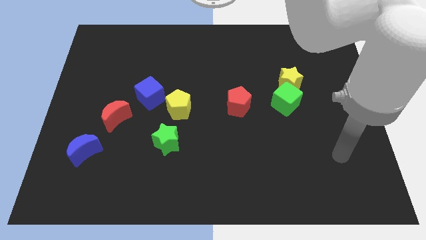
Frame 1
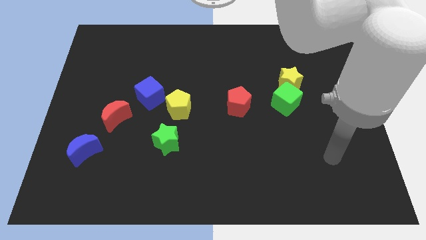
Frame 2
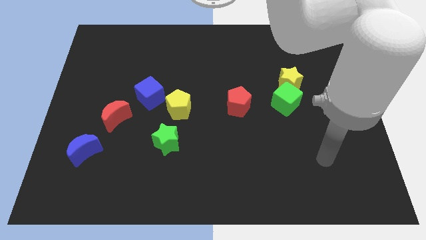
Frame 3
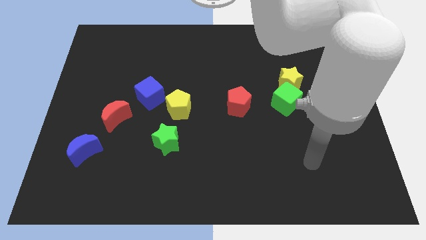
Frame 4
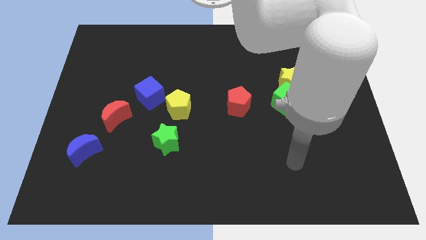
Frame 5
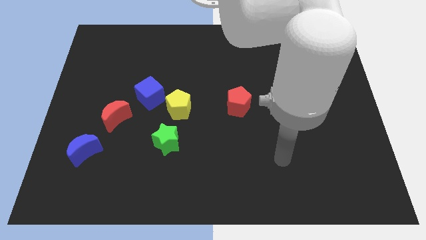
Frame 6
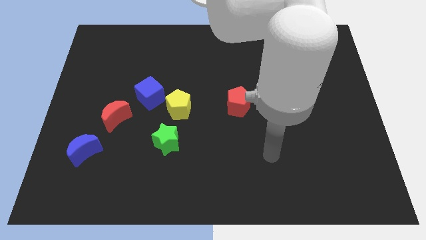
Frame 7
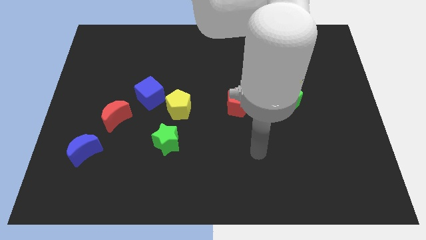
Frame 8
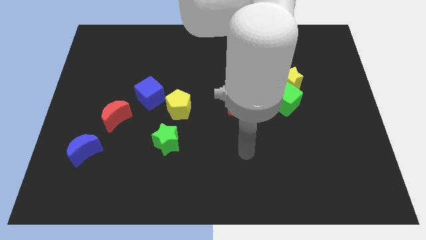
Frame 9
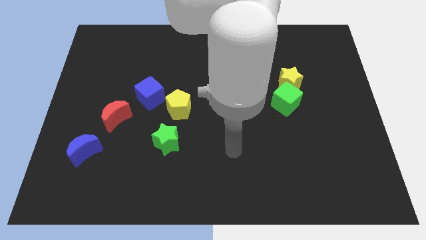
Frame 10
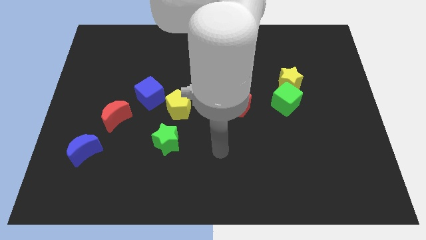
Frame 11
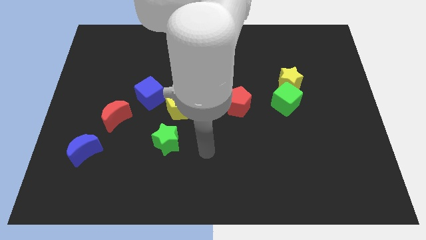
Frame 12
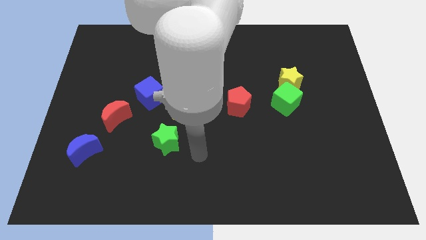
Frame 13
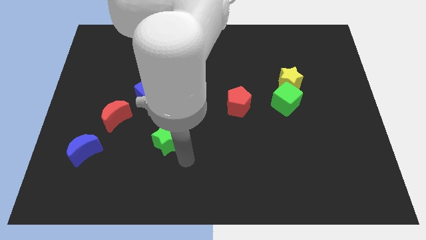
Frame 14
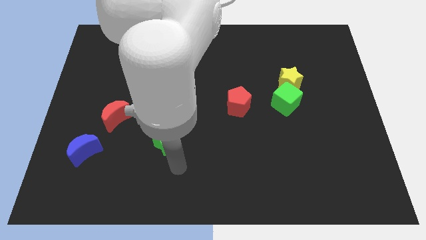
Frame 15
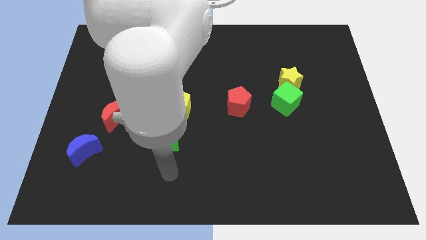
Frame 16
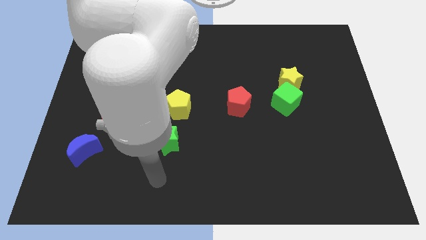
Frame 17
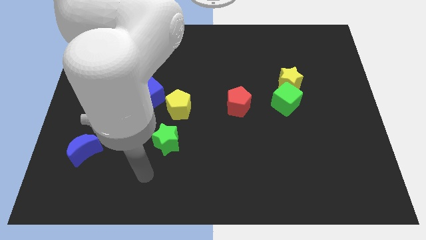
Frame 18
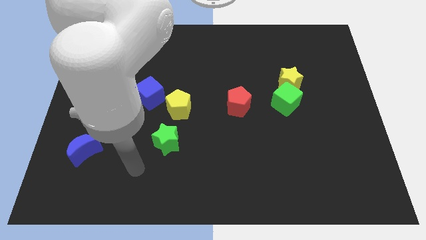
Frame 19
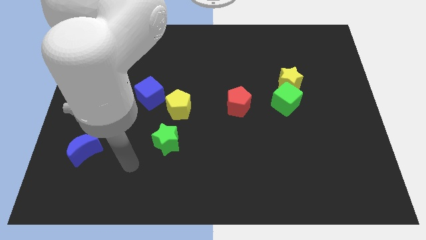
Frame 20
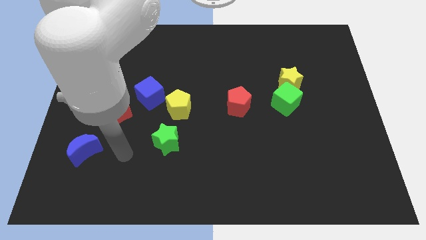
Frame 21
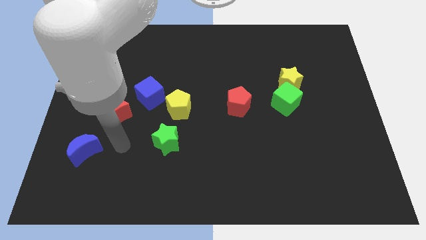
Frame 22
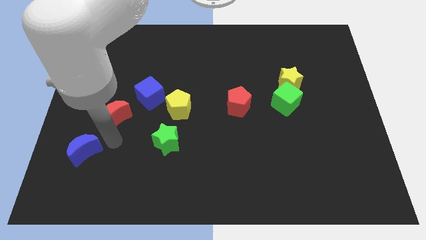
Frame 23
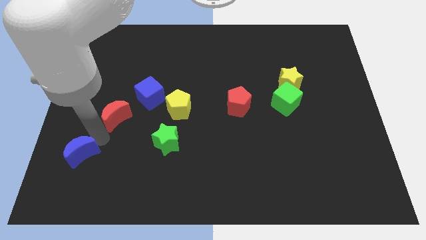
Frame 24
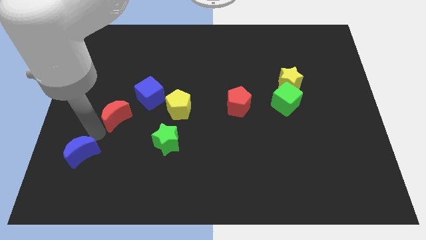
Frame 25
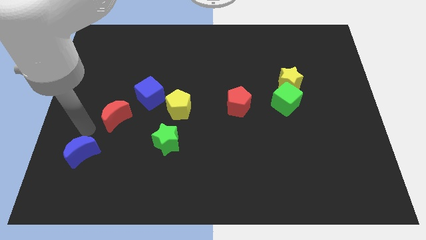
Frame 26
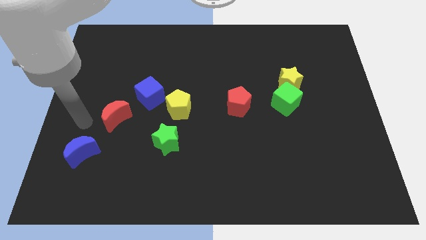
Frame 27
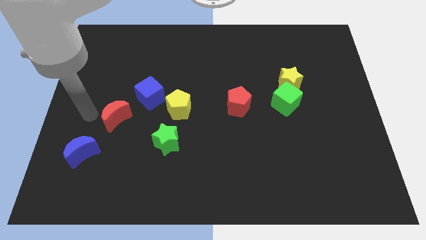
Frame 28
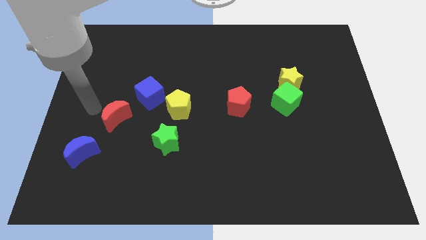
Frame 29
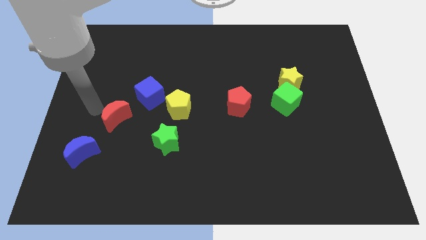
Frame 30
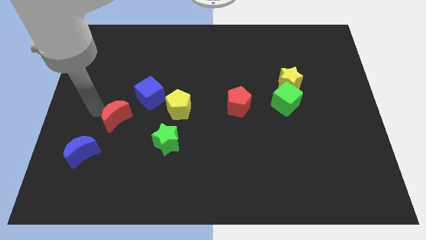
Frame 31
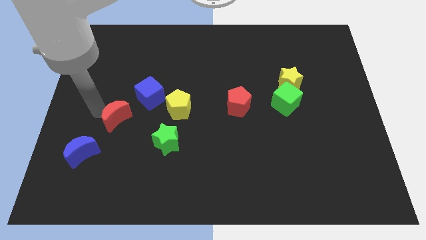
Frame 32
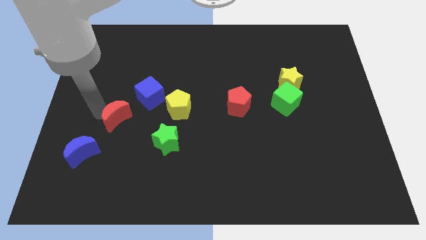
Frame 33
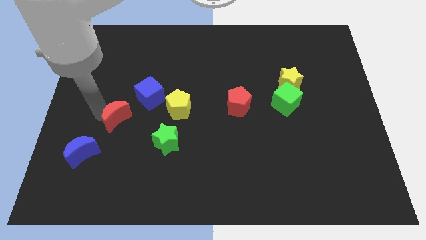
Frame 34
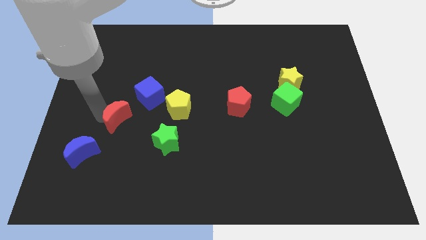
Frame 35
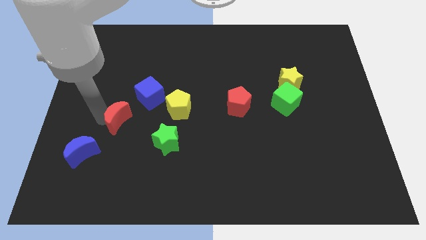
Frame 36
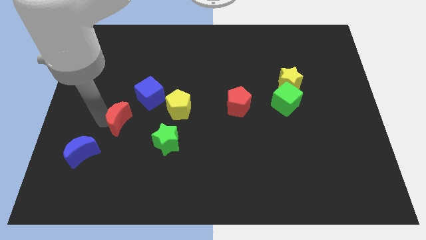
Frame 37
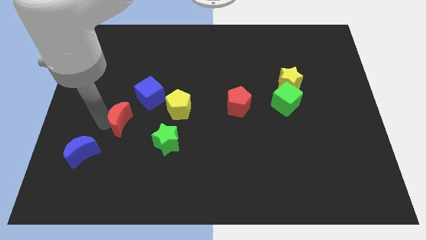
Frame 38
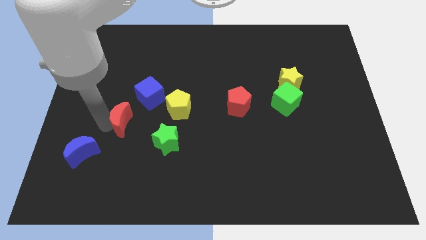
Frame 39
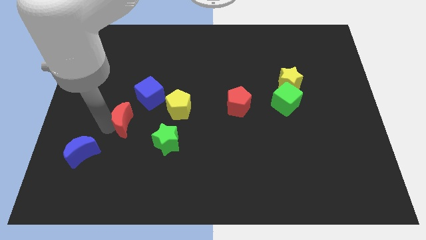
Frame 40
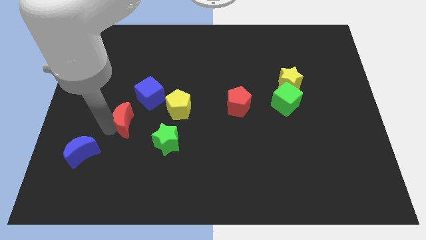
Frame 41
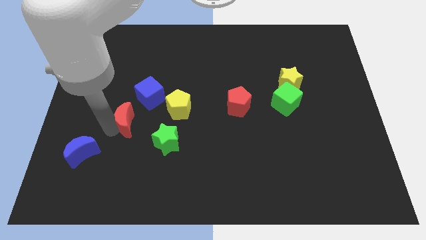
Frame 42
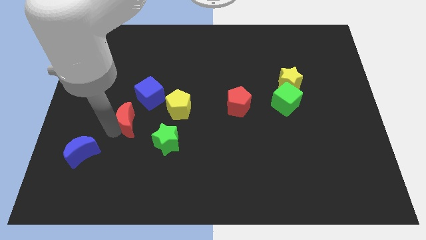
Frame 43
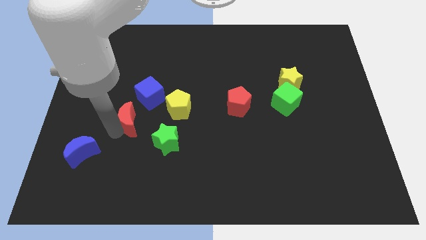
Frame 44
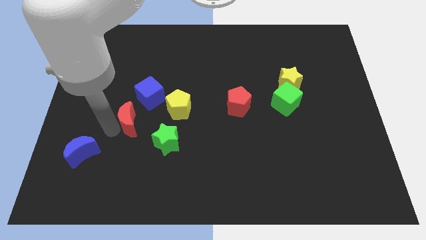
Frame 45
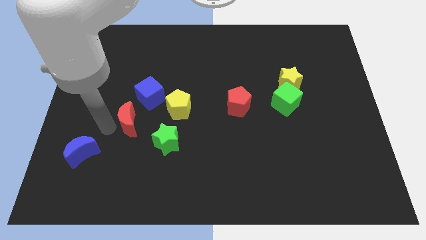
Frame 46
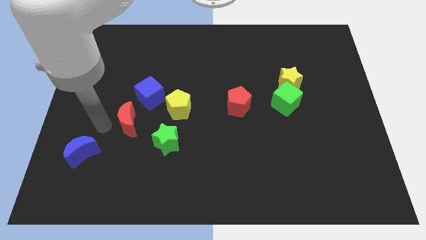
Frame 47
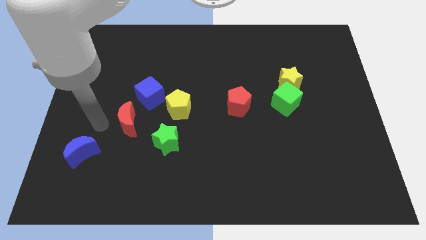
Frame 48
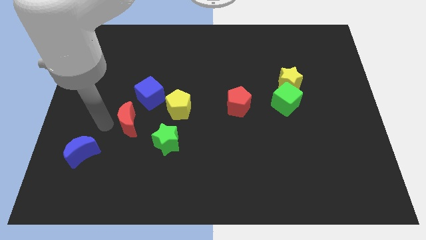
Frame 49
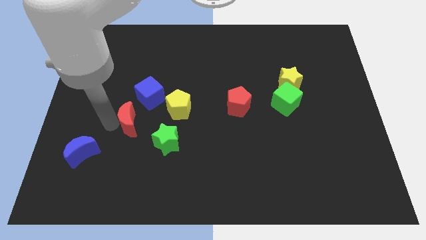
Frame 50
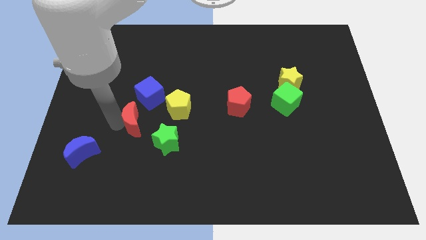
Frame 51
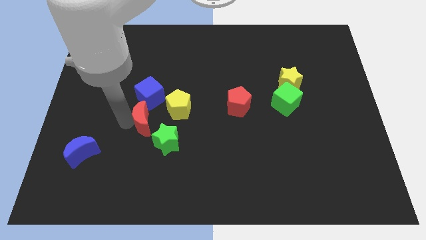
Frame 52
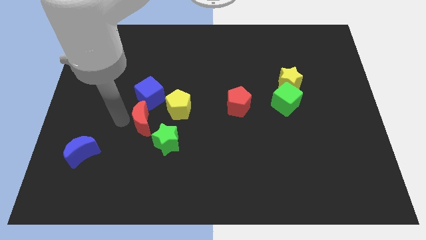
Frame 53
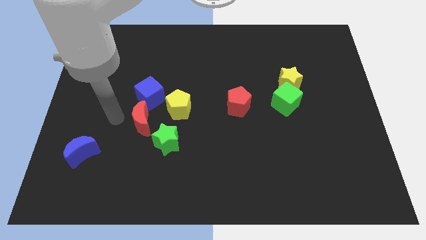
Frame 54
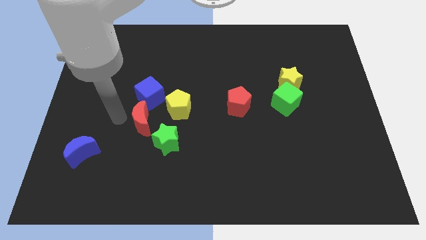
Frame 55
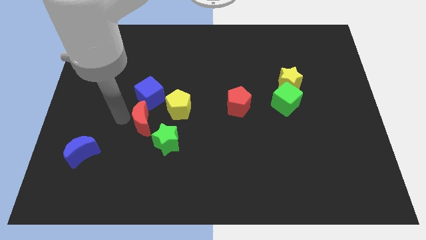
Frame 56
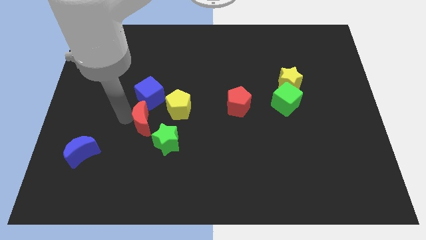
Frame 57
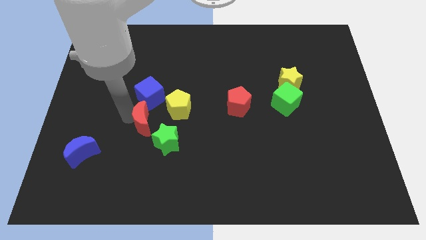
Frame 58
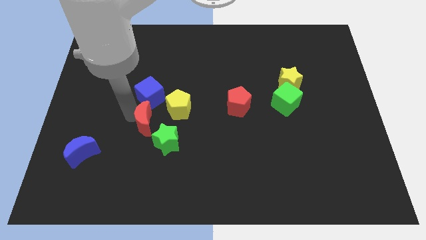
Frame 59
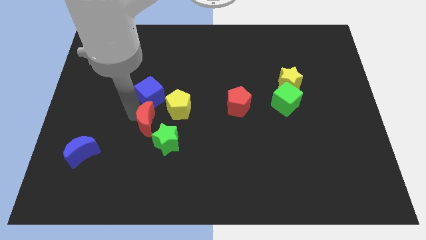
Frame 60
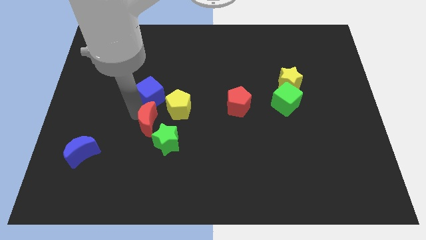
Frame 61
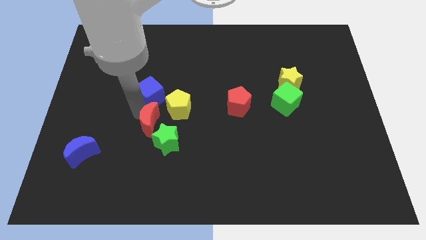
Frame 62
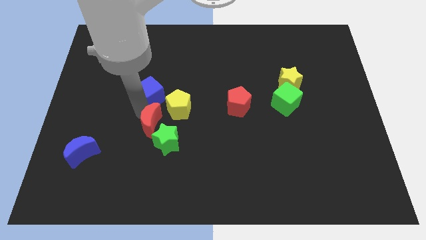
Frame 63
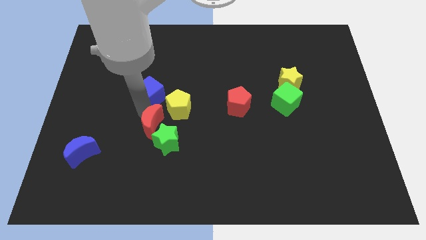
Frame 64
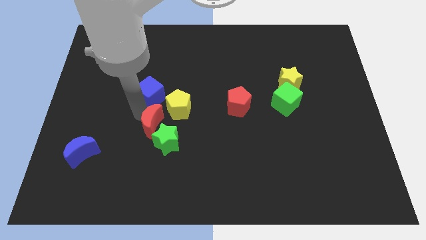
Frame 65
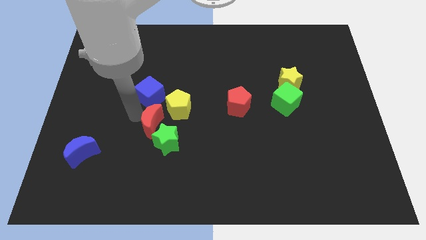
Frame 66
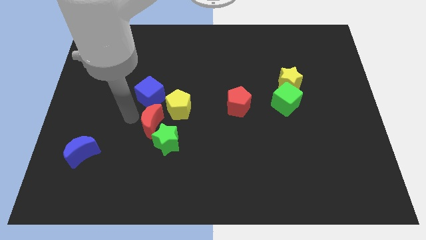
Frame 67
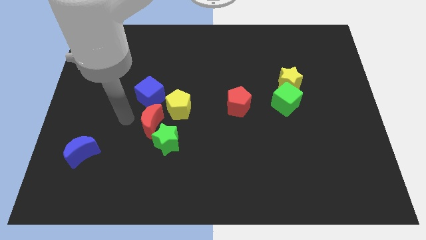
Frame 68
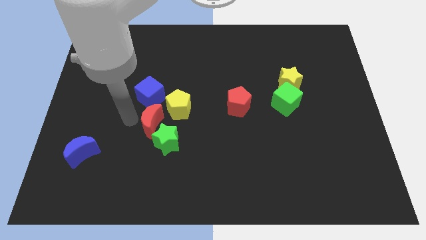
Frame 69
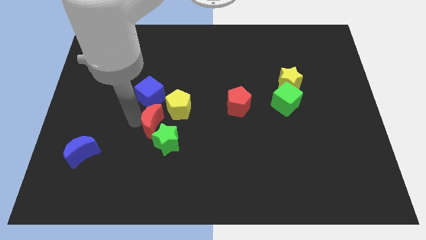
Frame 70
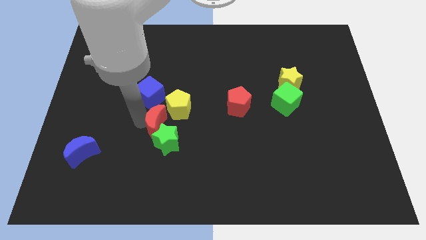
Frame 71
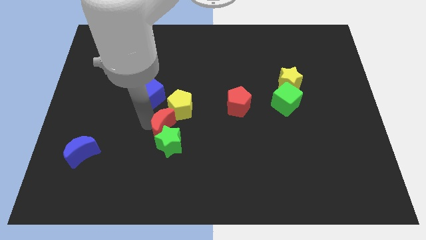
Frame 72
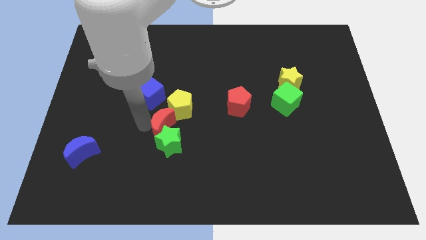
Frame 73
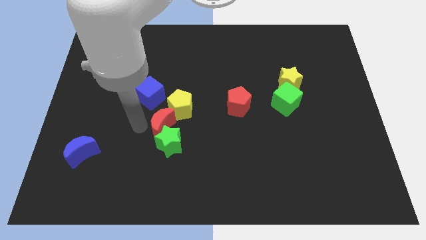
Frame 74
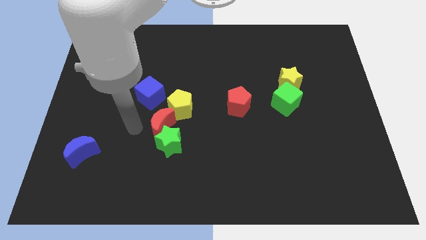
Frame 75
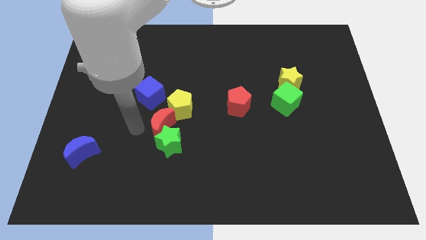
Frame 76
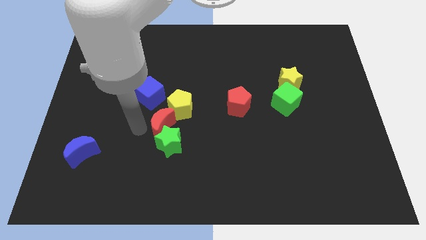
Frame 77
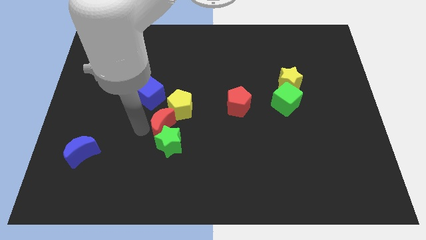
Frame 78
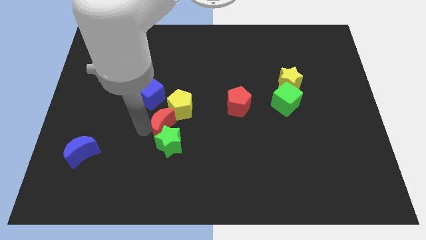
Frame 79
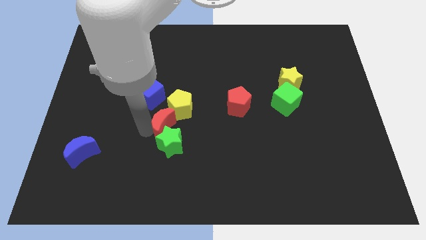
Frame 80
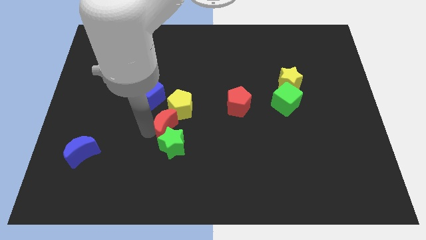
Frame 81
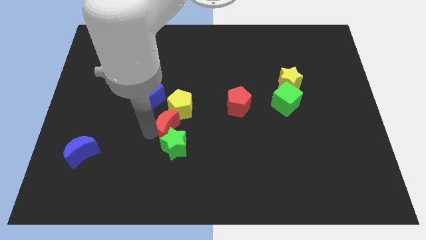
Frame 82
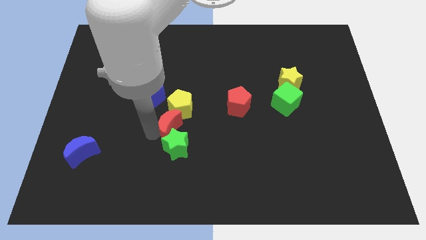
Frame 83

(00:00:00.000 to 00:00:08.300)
slide the red moon to the middle of the board
